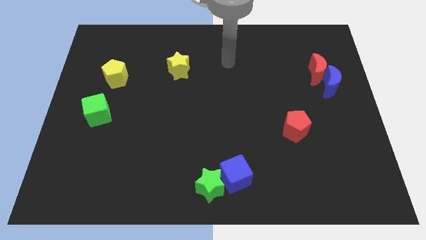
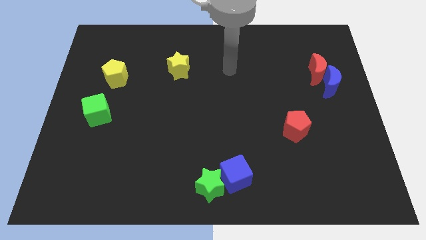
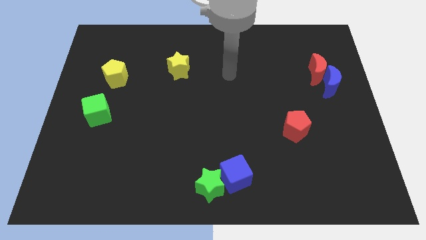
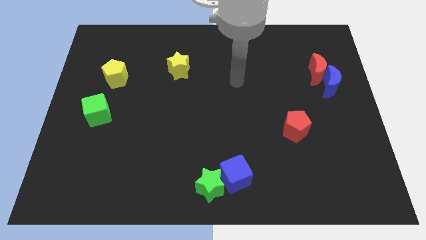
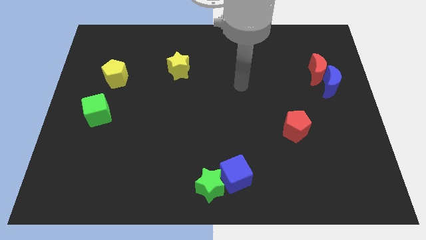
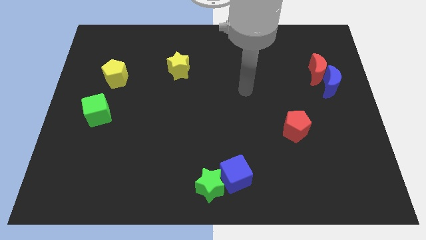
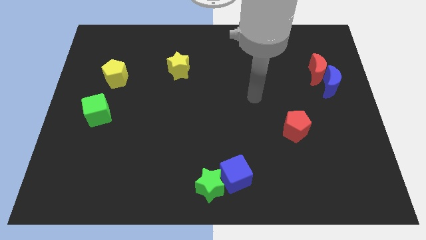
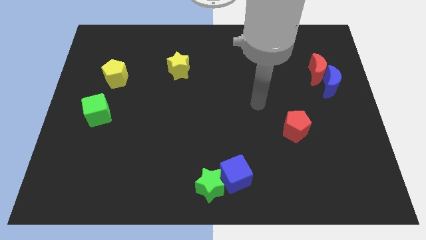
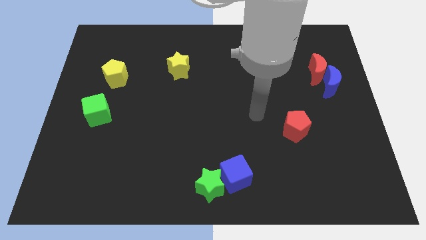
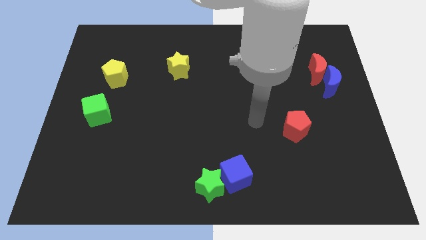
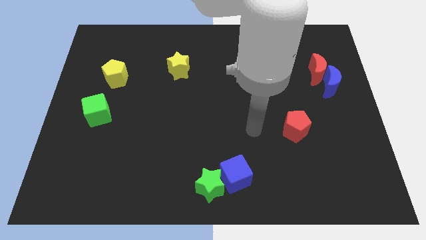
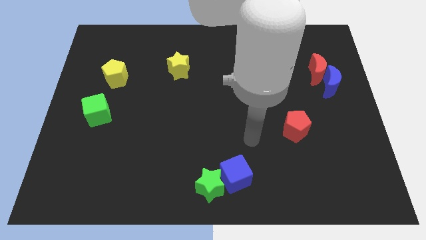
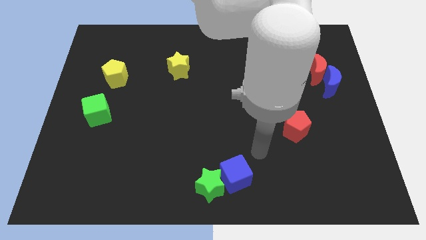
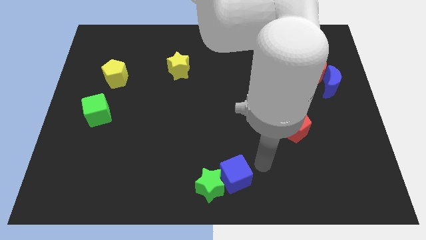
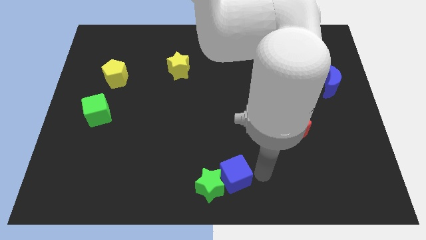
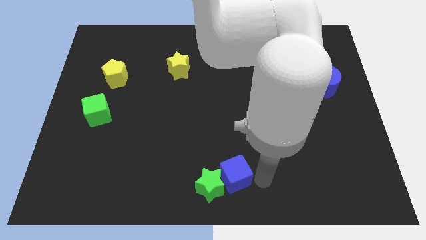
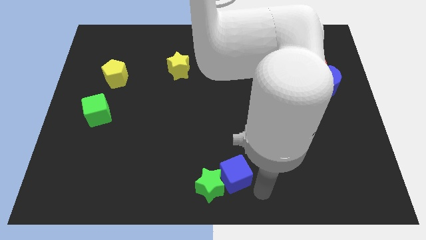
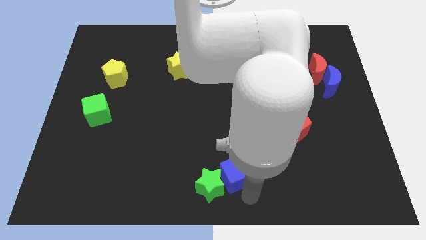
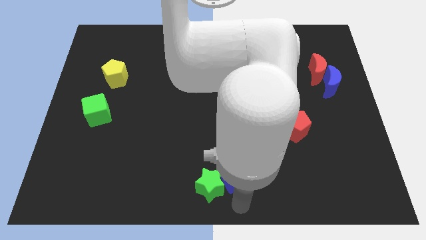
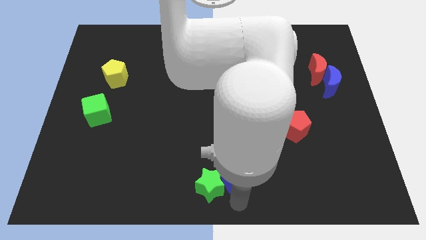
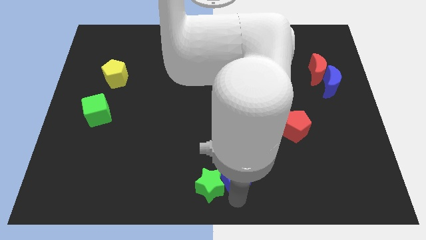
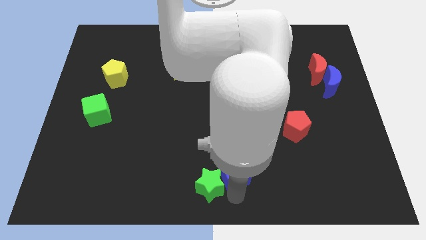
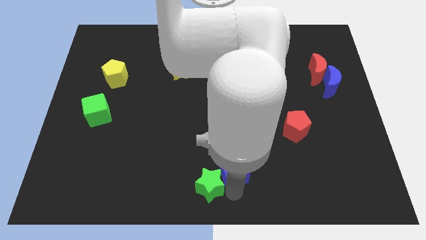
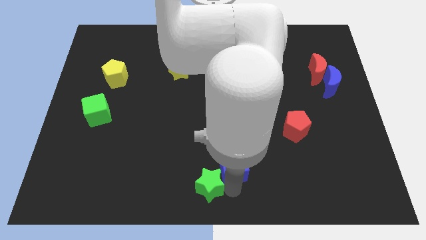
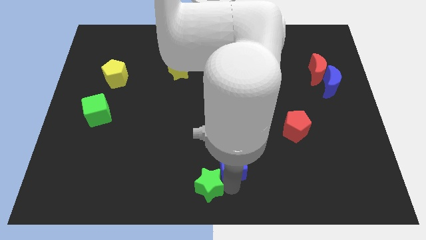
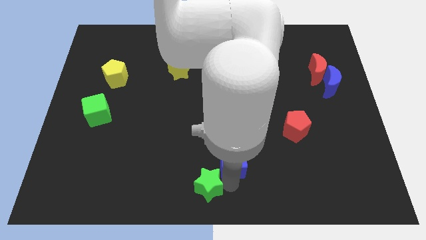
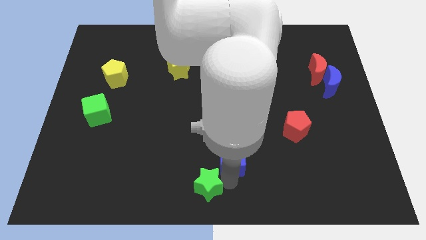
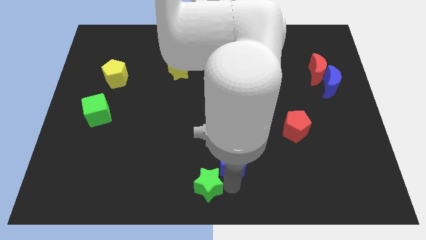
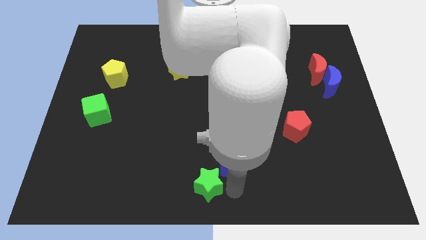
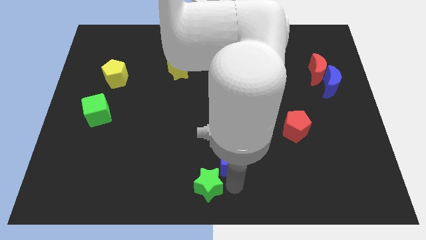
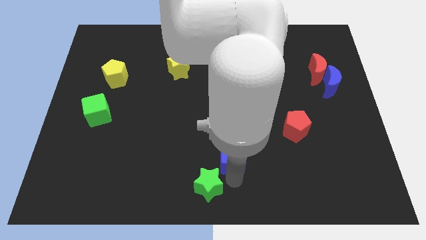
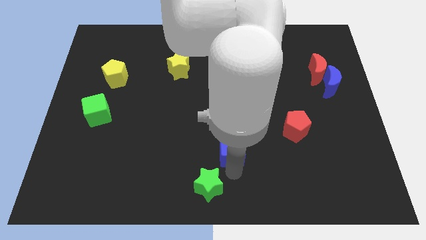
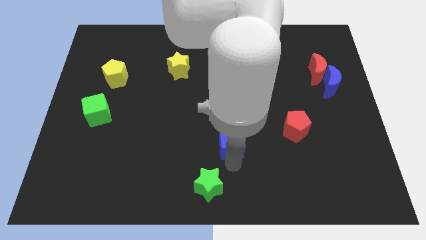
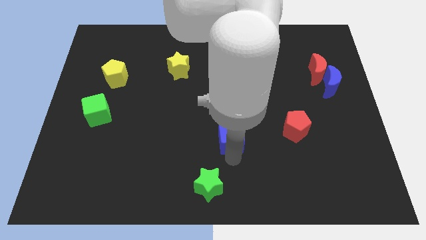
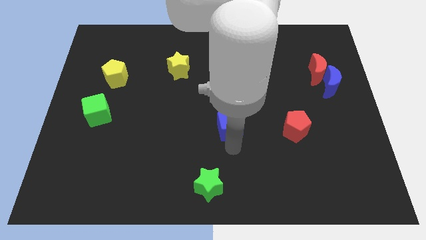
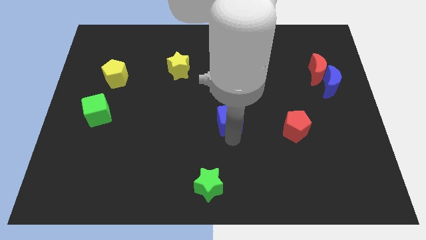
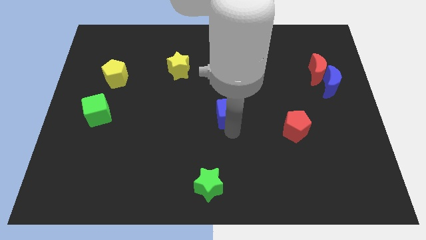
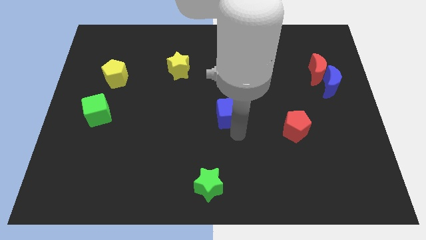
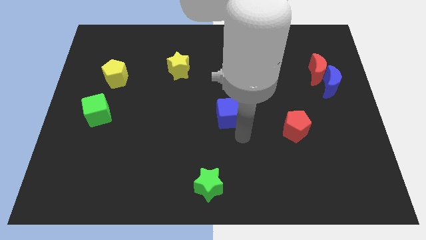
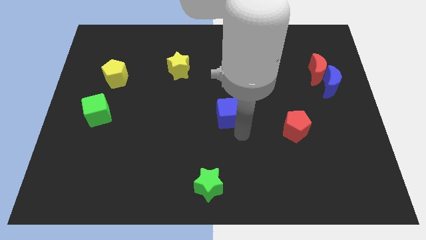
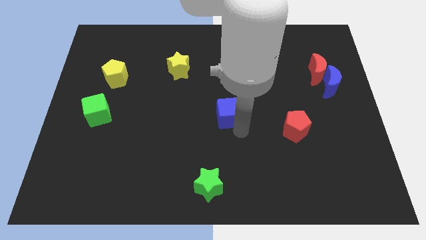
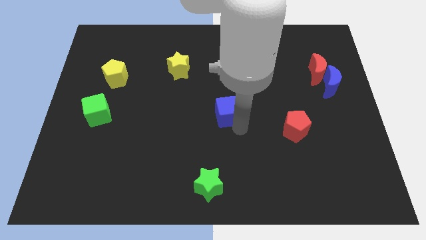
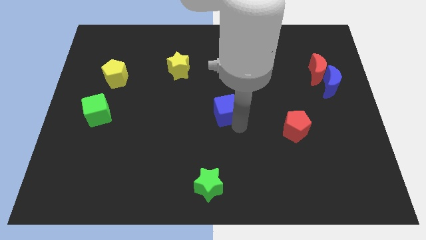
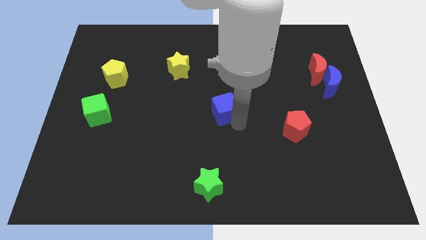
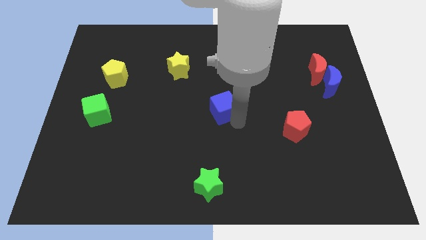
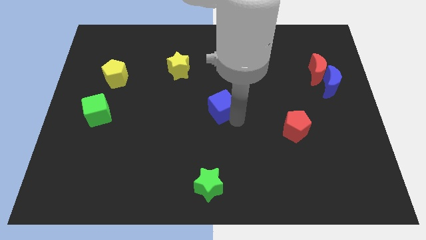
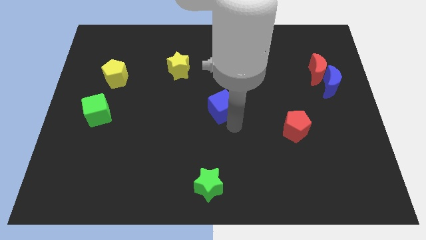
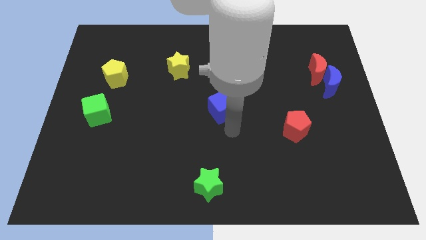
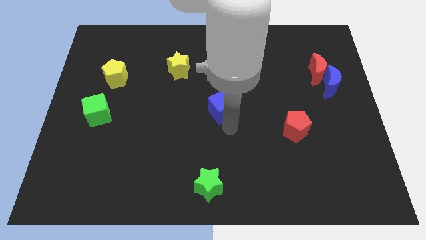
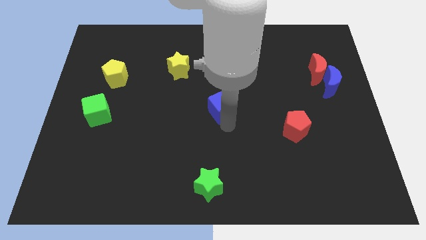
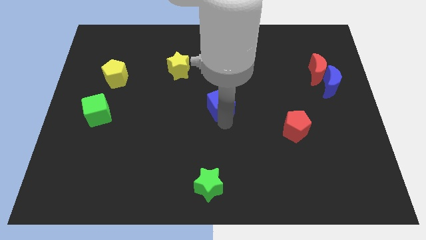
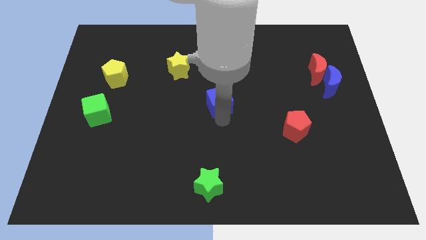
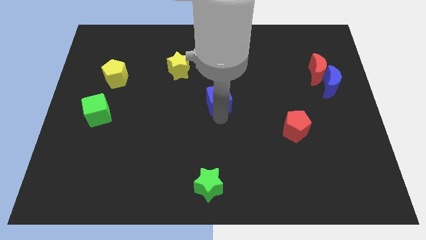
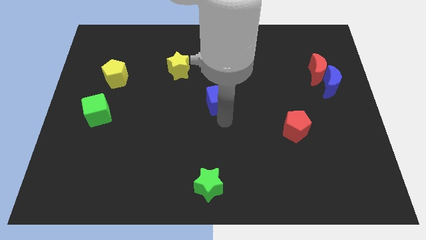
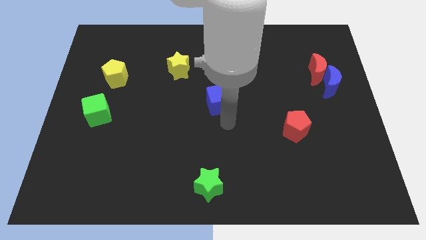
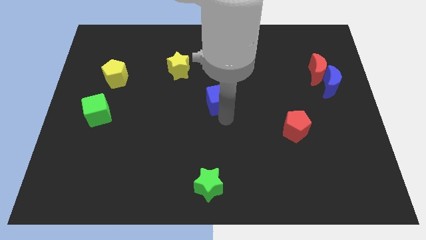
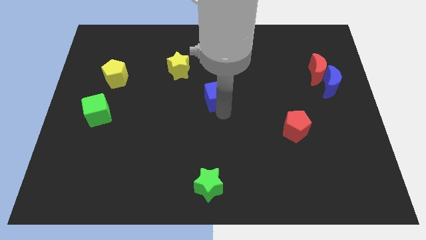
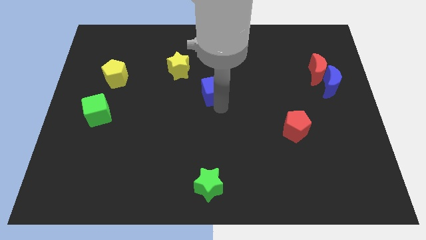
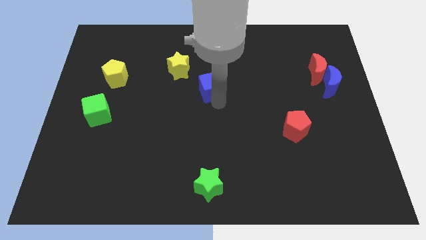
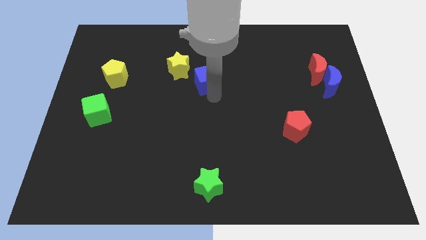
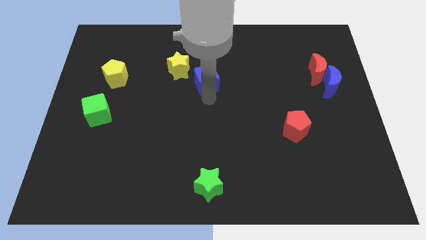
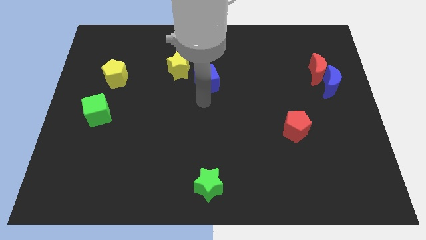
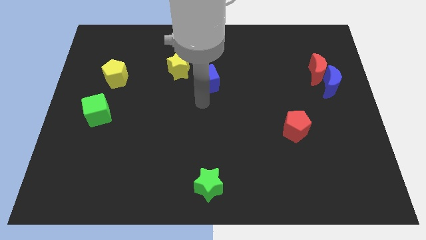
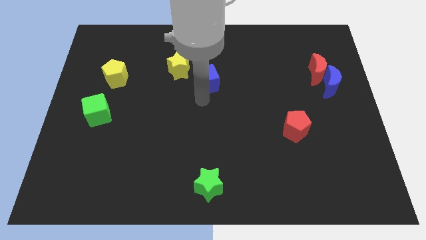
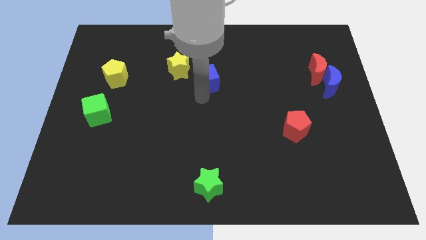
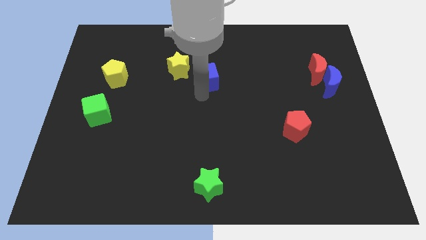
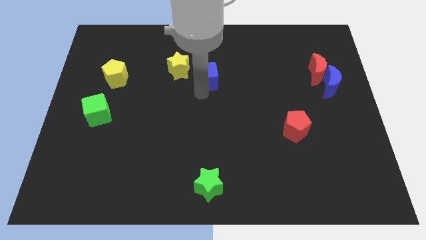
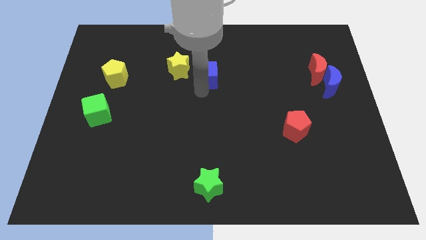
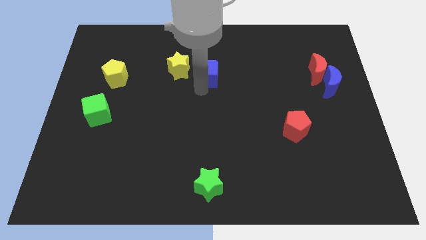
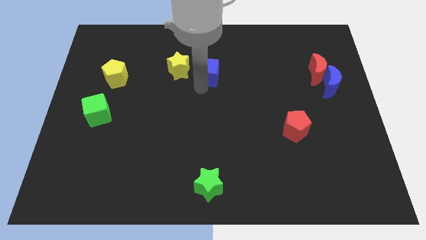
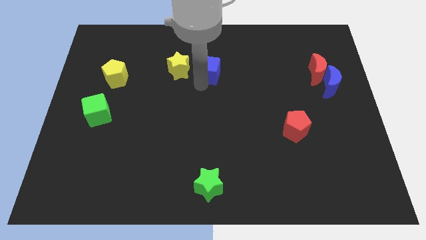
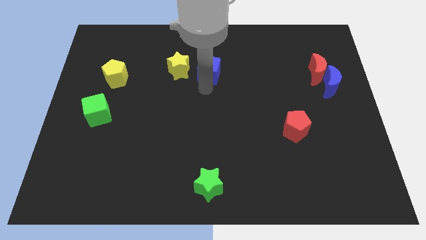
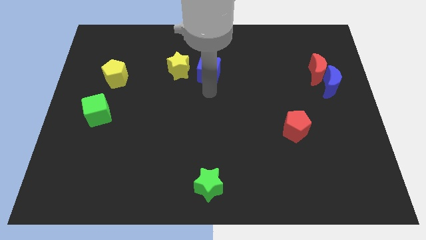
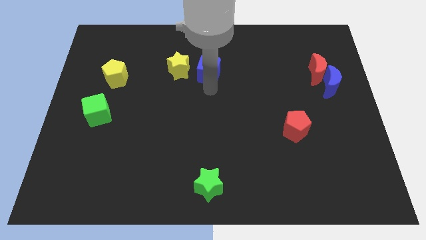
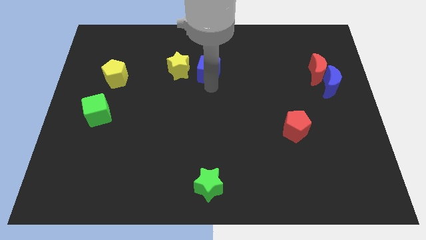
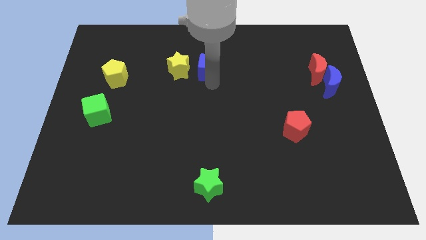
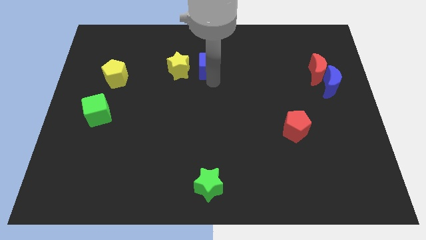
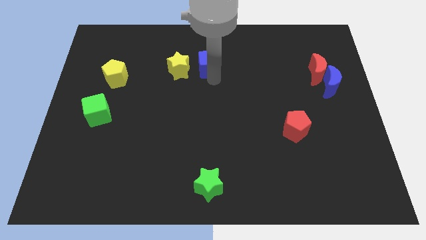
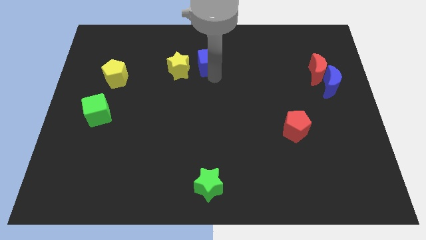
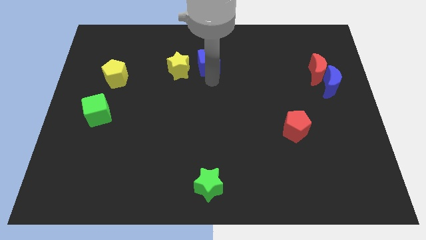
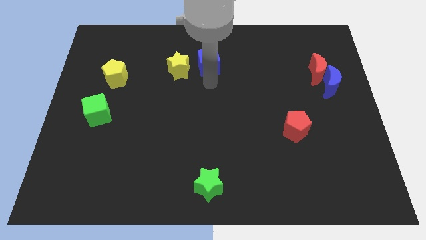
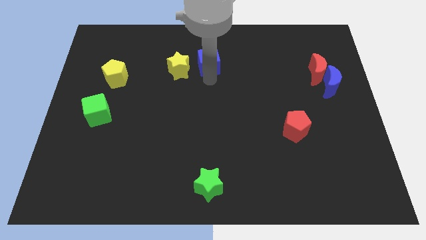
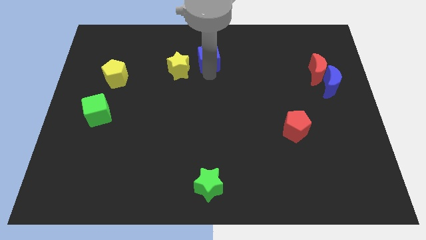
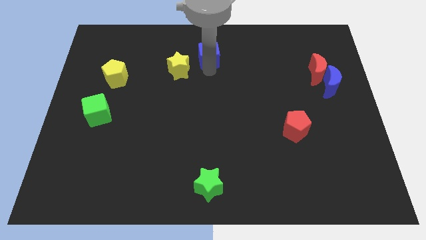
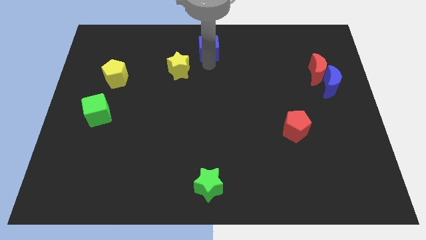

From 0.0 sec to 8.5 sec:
move the blue cube to the top
